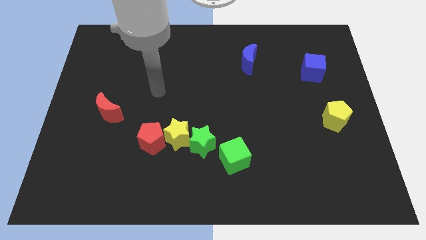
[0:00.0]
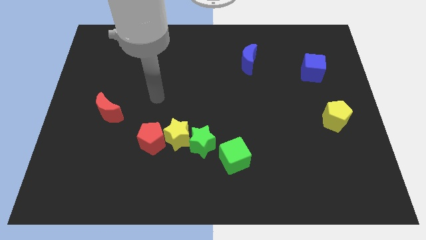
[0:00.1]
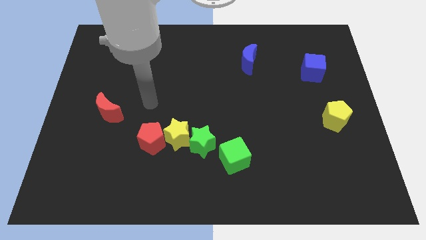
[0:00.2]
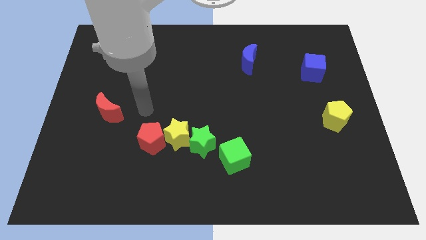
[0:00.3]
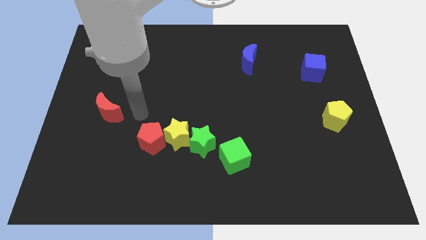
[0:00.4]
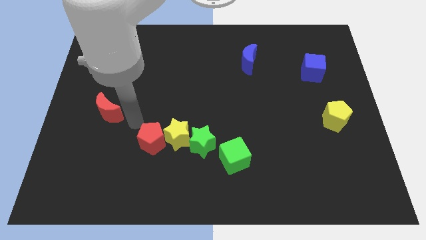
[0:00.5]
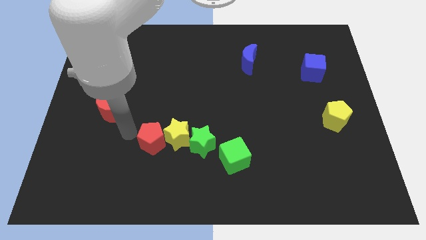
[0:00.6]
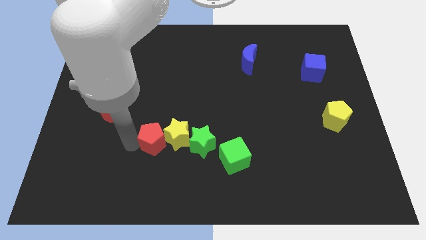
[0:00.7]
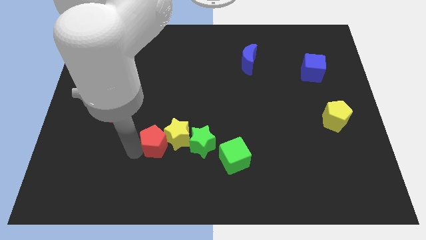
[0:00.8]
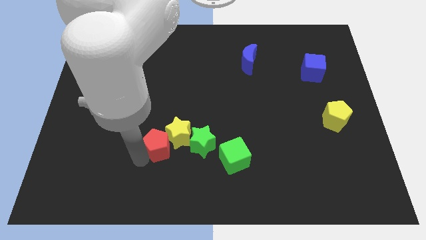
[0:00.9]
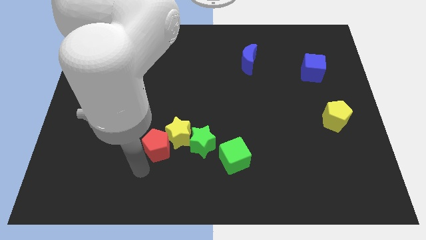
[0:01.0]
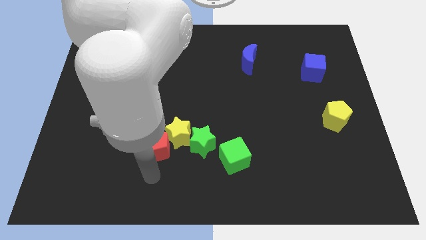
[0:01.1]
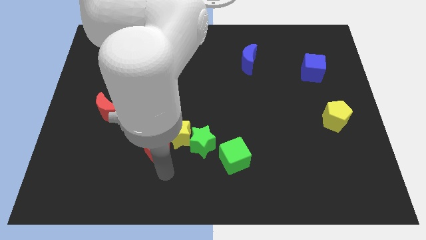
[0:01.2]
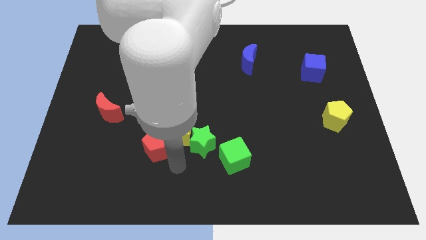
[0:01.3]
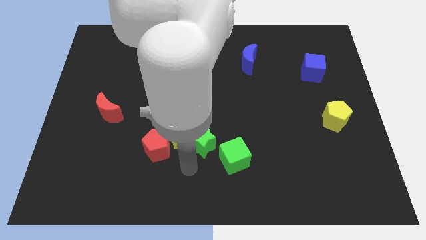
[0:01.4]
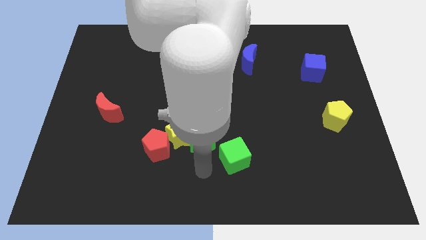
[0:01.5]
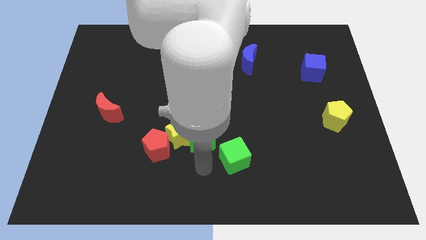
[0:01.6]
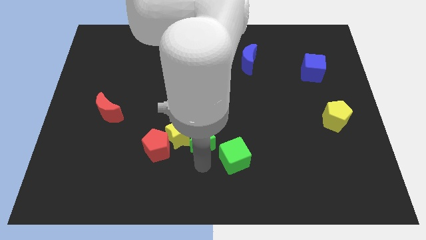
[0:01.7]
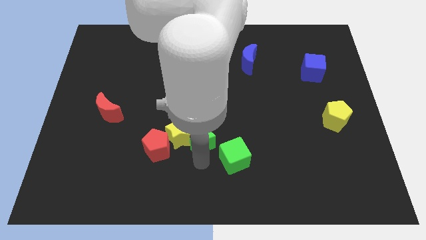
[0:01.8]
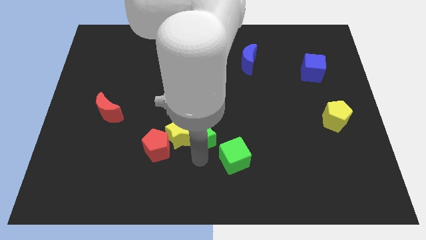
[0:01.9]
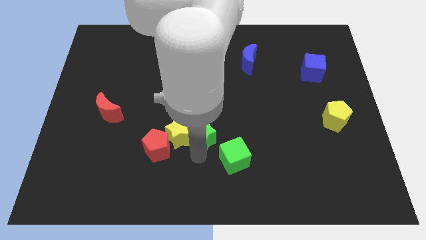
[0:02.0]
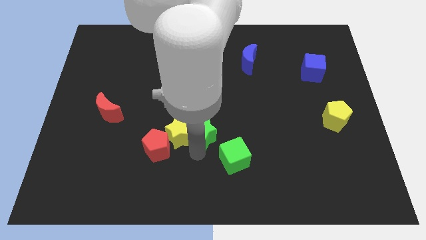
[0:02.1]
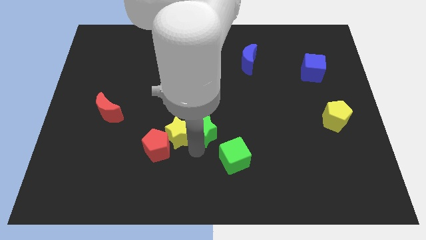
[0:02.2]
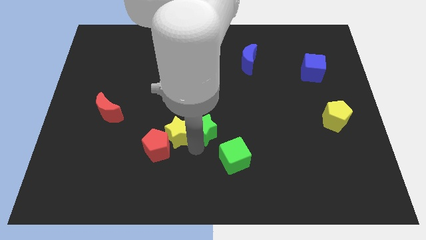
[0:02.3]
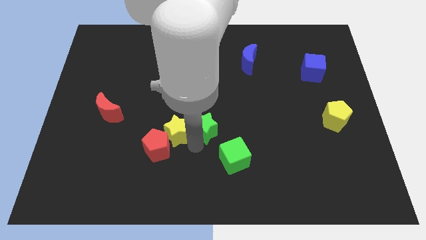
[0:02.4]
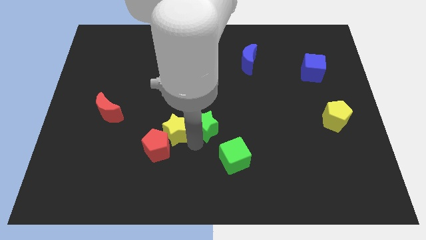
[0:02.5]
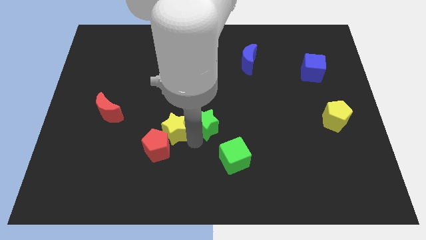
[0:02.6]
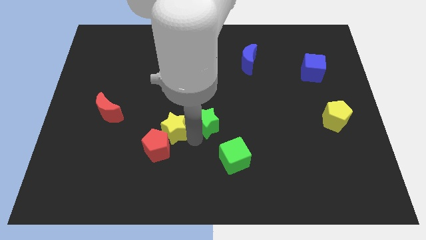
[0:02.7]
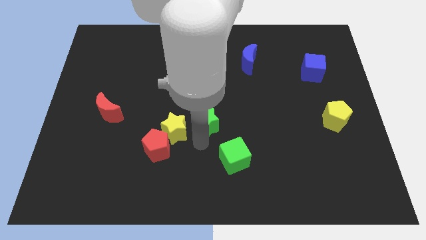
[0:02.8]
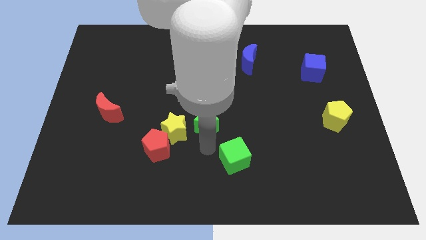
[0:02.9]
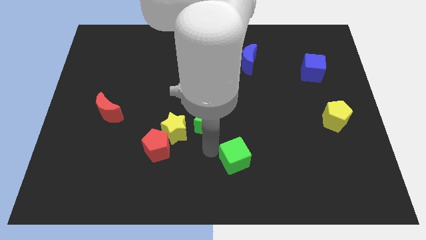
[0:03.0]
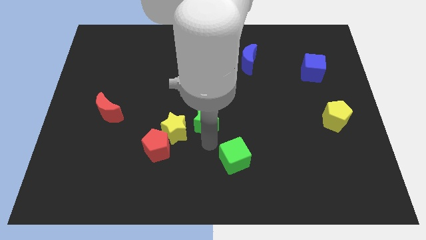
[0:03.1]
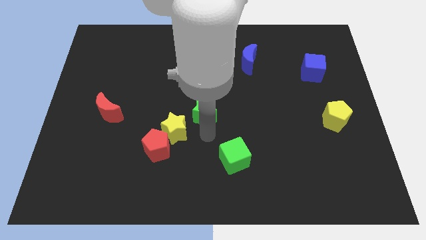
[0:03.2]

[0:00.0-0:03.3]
push the green star upwards slightly

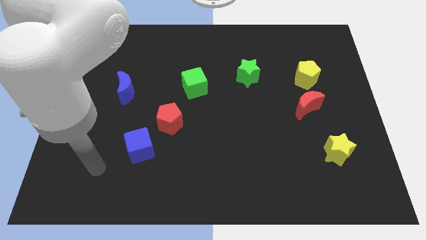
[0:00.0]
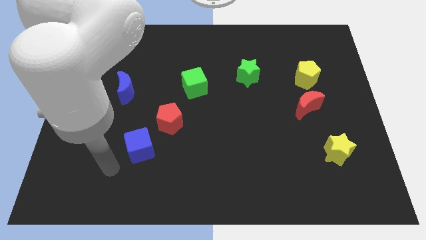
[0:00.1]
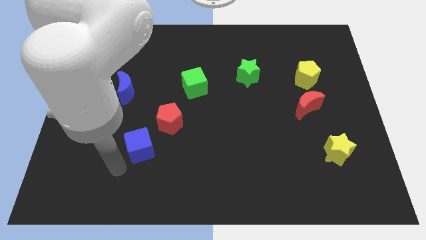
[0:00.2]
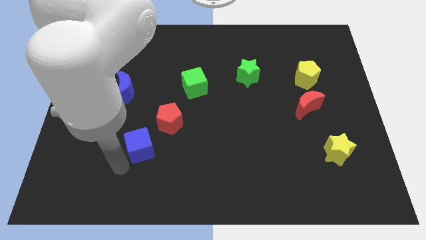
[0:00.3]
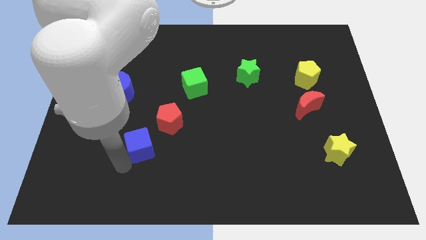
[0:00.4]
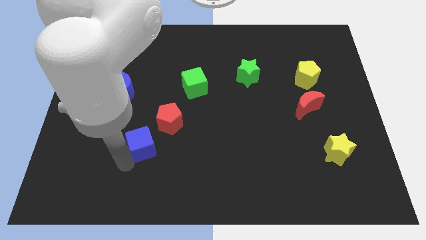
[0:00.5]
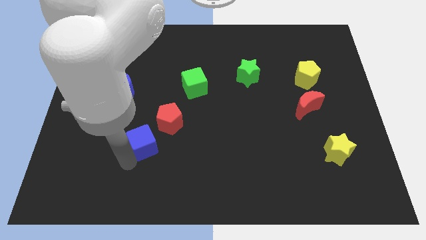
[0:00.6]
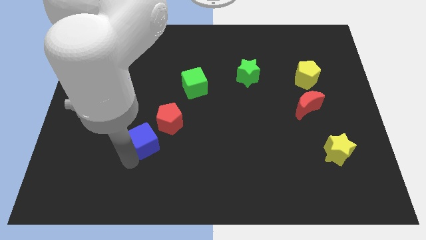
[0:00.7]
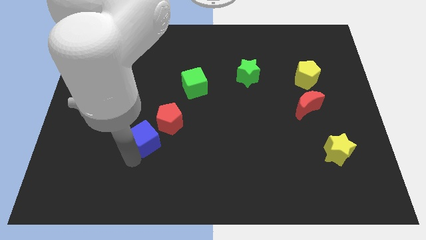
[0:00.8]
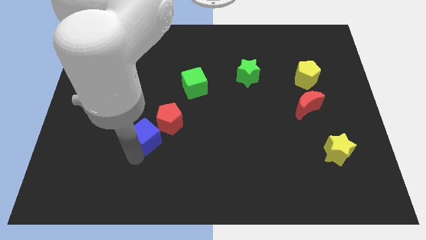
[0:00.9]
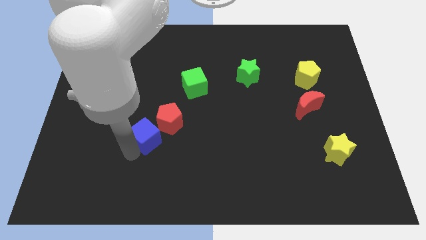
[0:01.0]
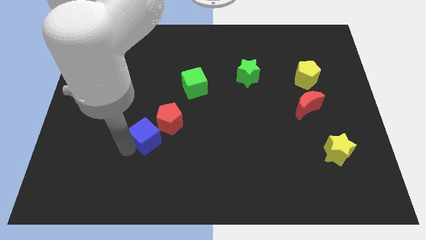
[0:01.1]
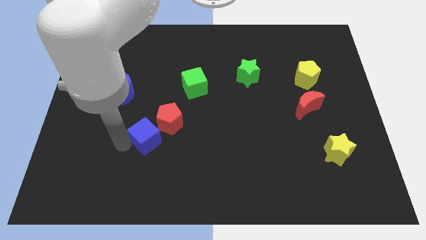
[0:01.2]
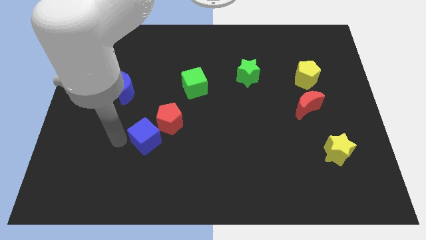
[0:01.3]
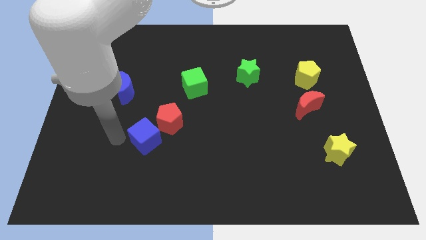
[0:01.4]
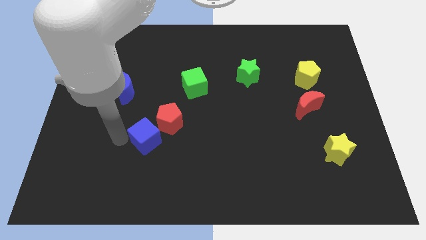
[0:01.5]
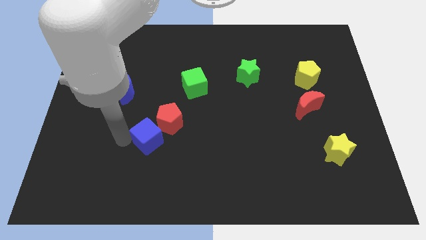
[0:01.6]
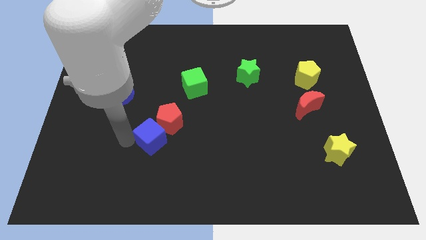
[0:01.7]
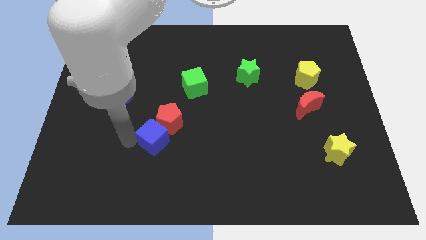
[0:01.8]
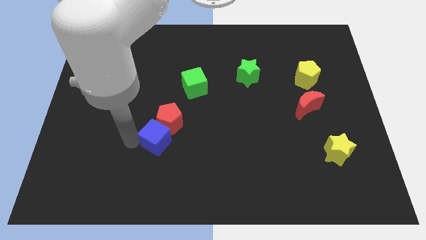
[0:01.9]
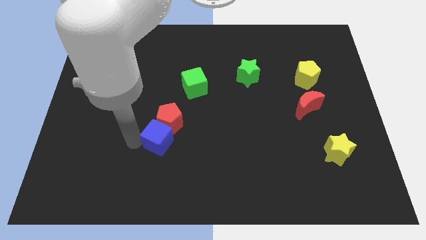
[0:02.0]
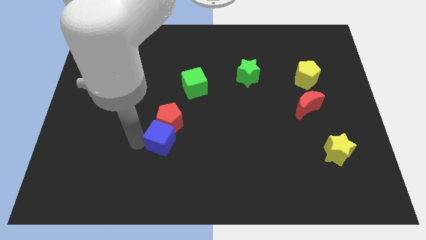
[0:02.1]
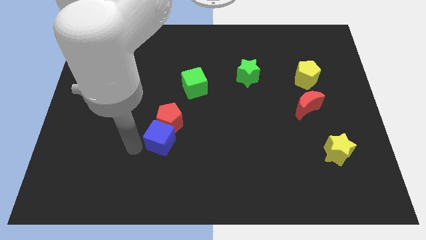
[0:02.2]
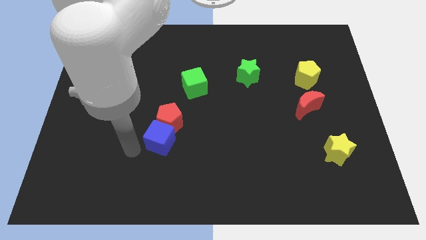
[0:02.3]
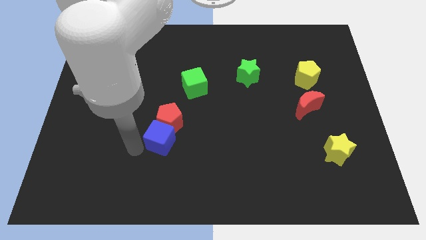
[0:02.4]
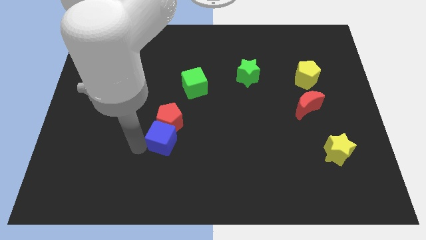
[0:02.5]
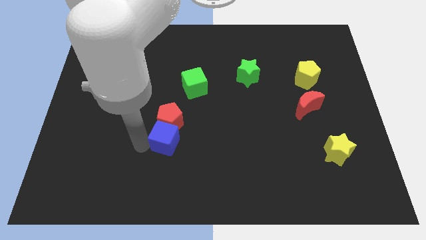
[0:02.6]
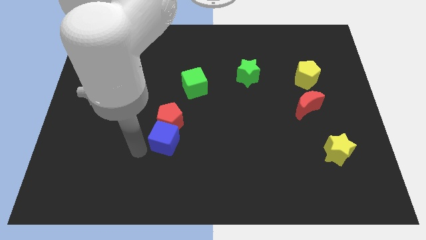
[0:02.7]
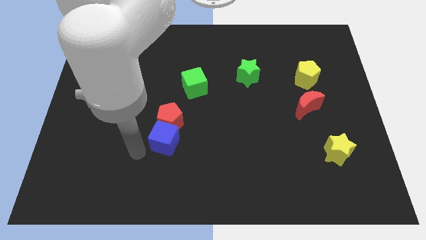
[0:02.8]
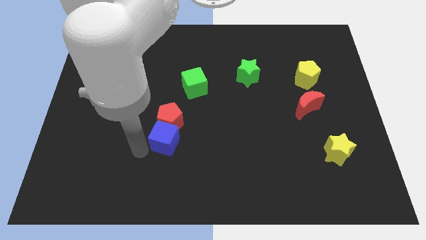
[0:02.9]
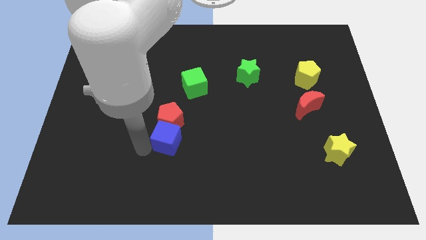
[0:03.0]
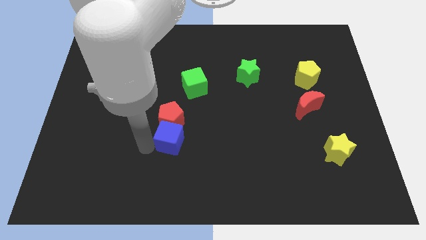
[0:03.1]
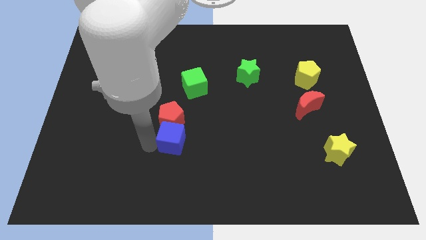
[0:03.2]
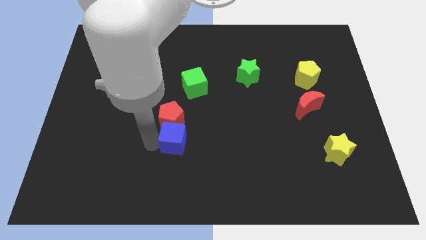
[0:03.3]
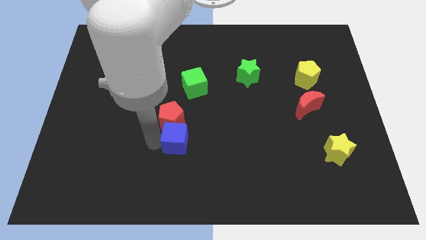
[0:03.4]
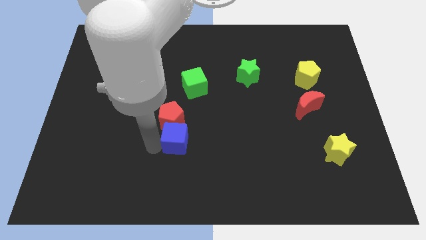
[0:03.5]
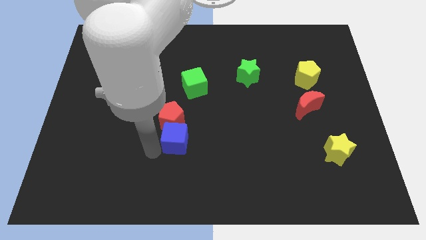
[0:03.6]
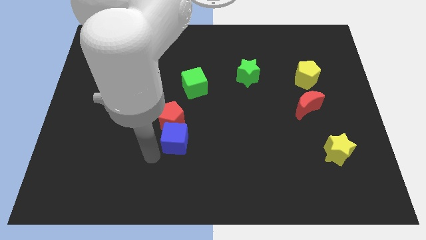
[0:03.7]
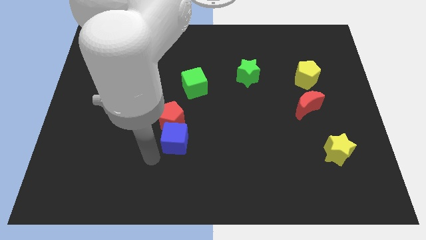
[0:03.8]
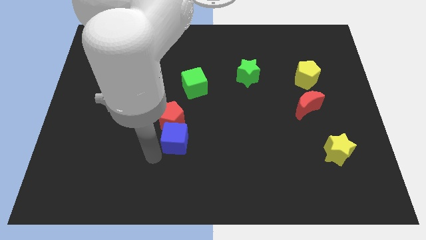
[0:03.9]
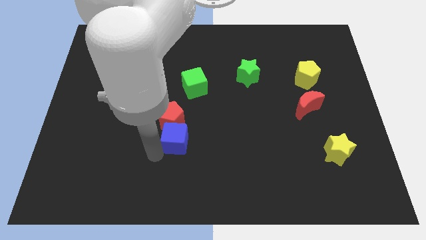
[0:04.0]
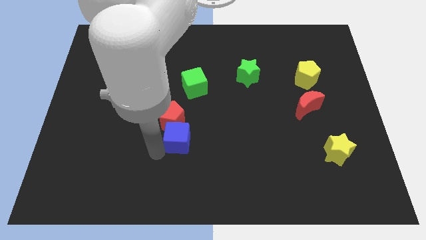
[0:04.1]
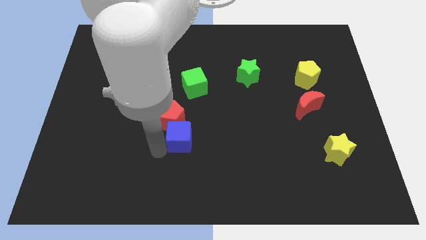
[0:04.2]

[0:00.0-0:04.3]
move the blue cube slightly up and then right

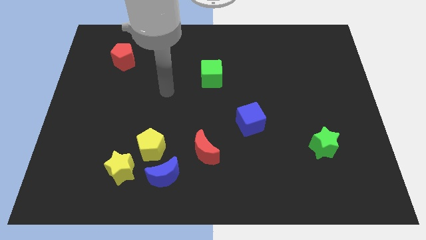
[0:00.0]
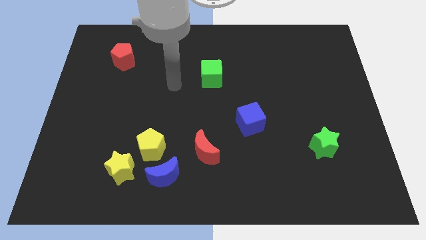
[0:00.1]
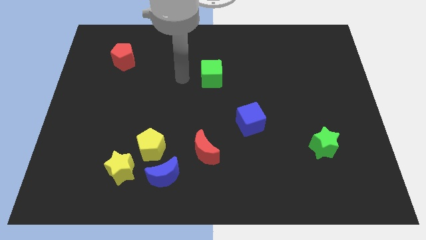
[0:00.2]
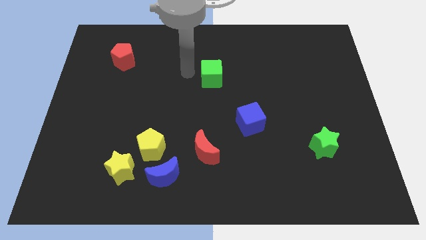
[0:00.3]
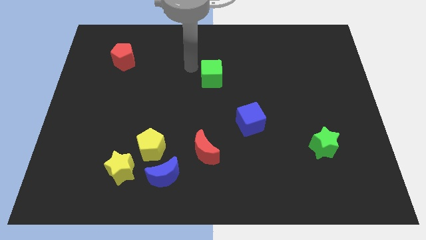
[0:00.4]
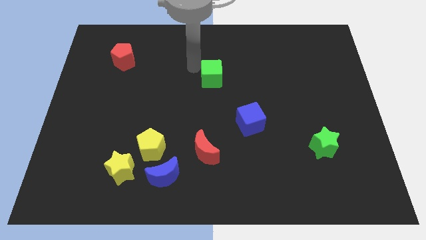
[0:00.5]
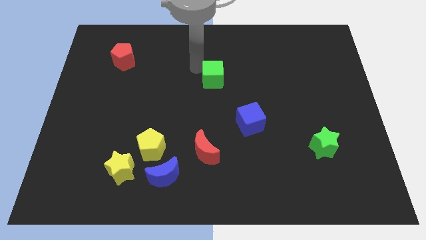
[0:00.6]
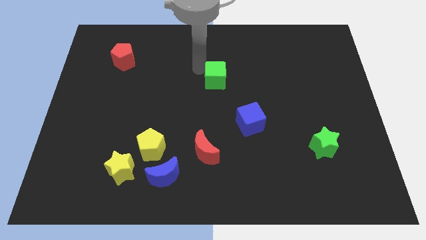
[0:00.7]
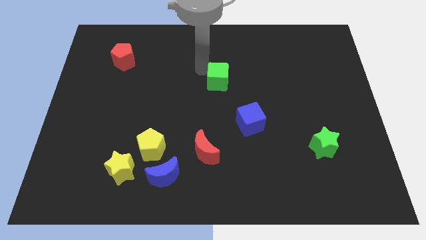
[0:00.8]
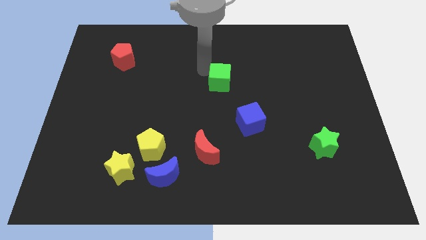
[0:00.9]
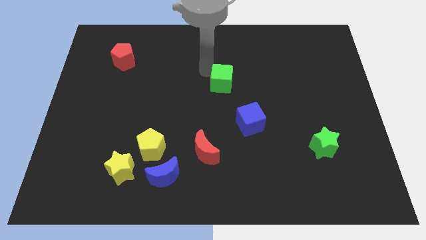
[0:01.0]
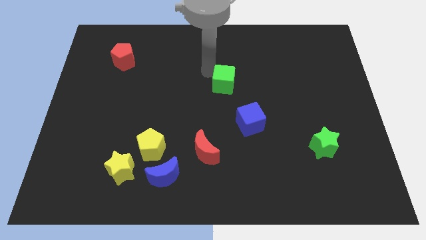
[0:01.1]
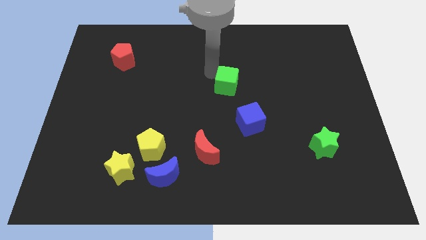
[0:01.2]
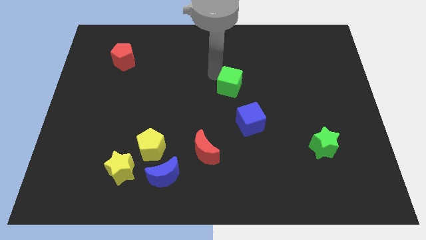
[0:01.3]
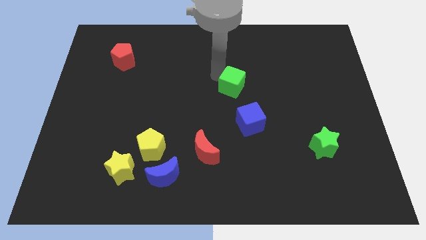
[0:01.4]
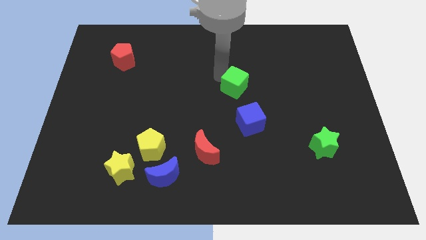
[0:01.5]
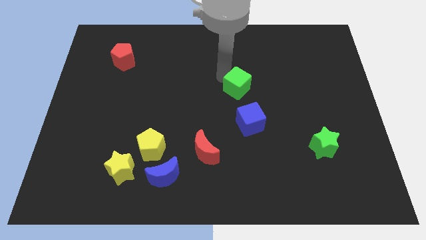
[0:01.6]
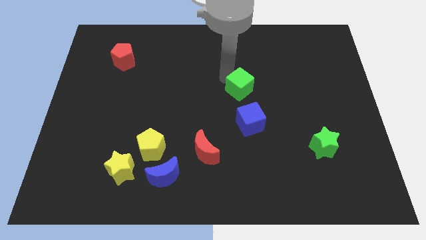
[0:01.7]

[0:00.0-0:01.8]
slide the green cube somewhat down and right diagonally
